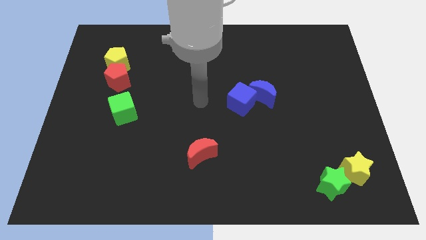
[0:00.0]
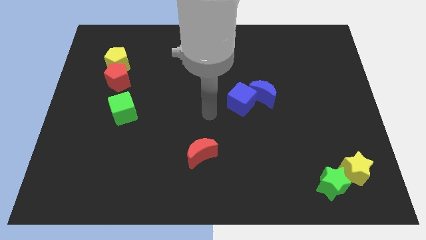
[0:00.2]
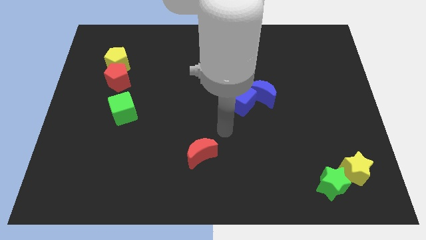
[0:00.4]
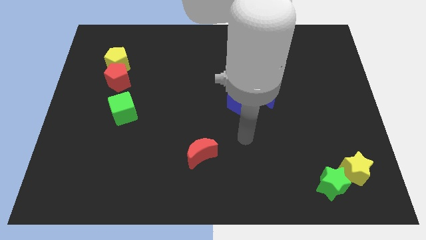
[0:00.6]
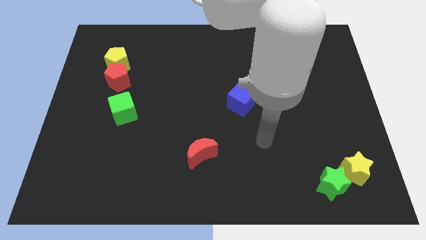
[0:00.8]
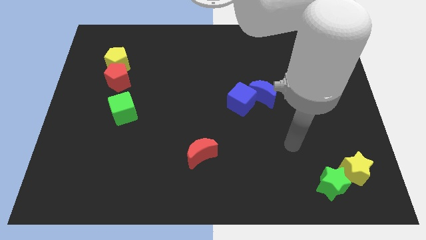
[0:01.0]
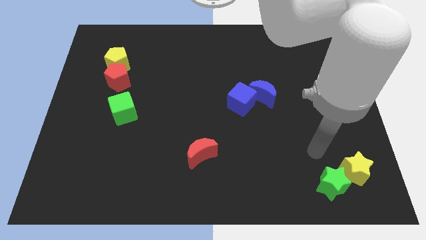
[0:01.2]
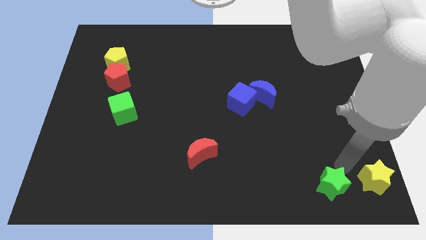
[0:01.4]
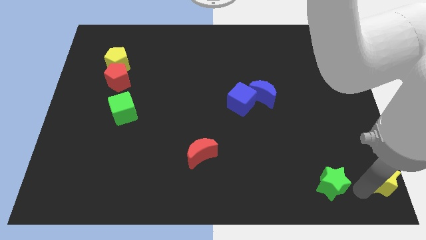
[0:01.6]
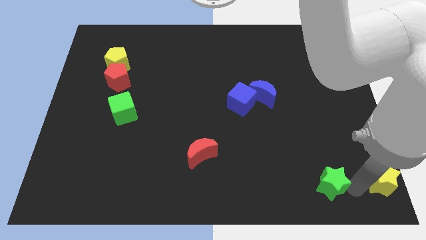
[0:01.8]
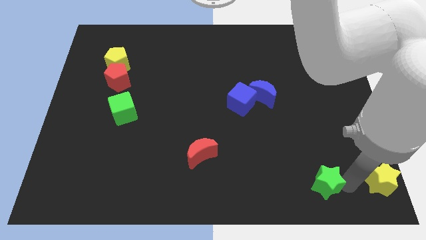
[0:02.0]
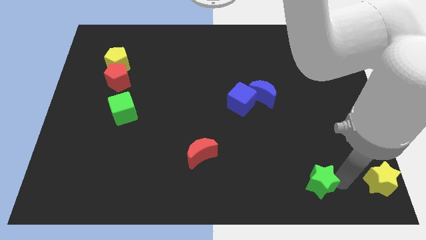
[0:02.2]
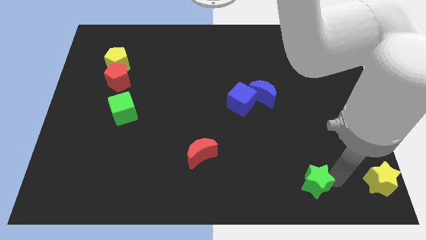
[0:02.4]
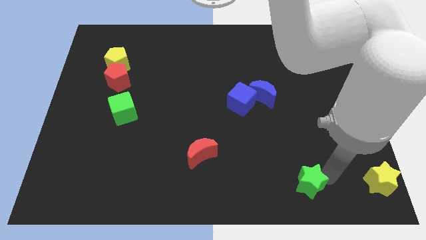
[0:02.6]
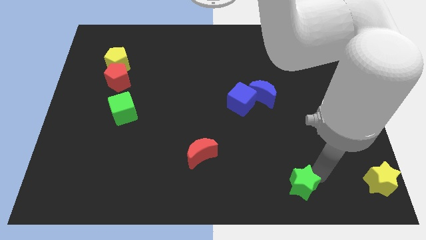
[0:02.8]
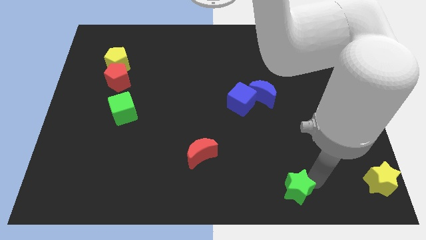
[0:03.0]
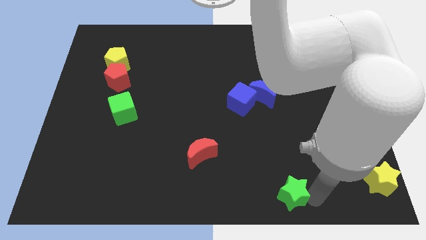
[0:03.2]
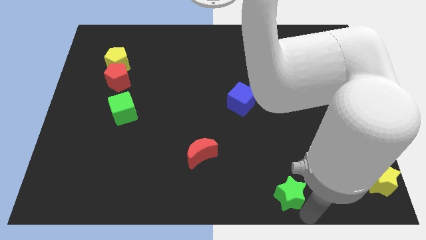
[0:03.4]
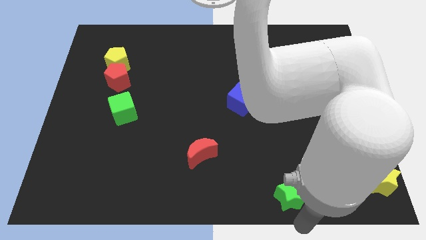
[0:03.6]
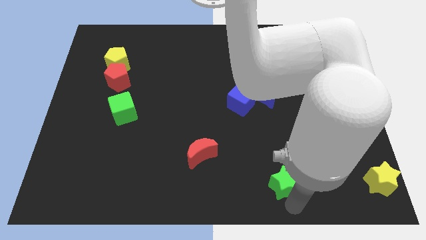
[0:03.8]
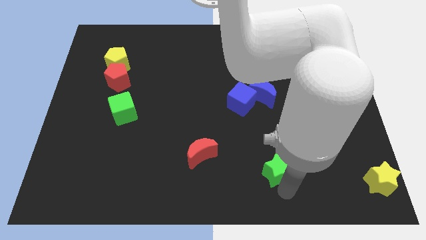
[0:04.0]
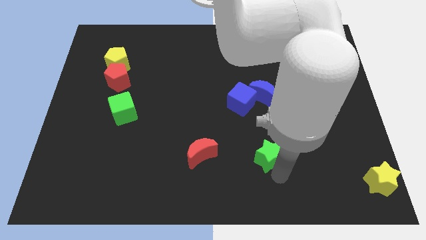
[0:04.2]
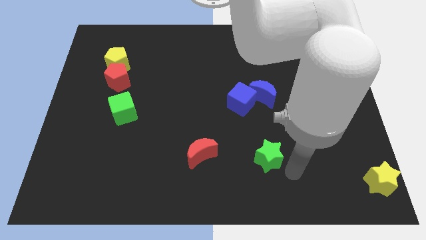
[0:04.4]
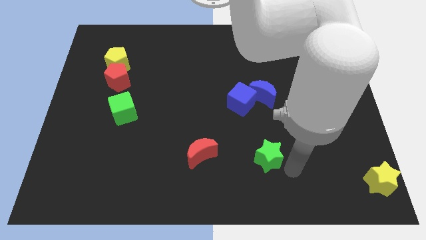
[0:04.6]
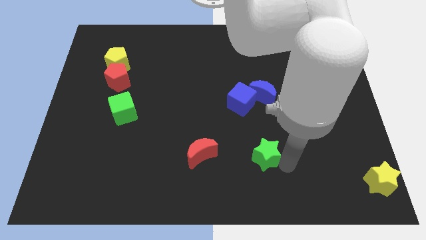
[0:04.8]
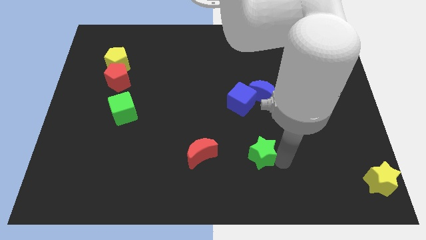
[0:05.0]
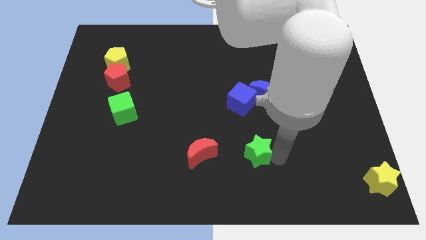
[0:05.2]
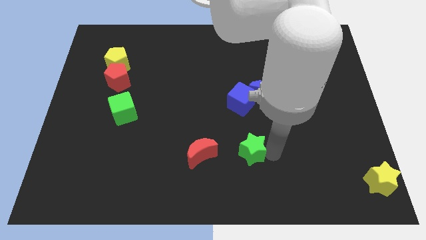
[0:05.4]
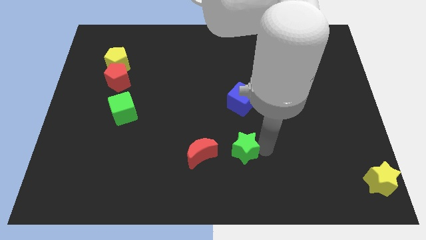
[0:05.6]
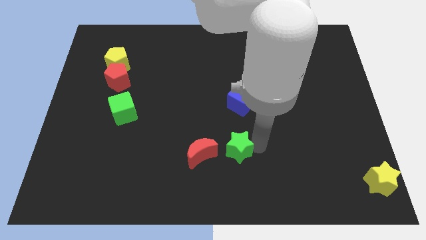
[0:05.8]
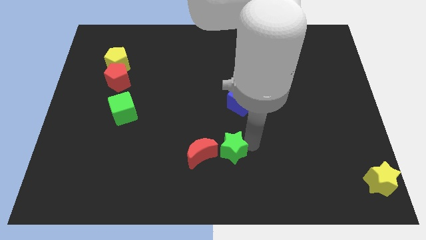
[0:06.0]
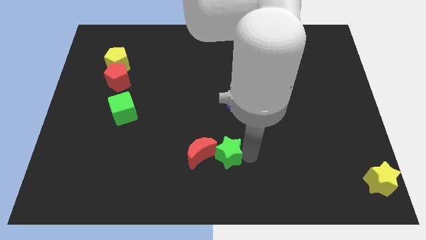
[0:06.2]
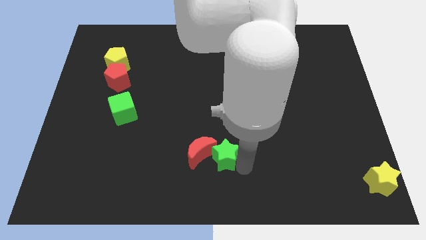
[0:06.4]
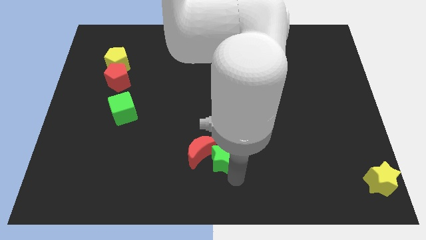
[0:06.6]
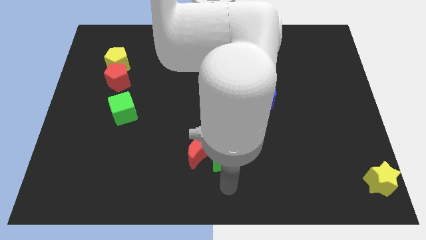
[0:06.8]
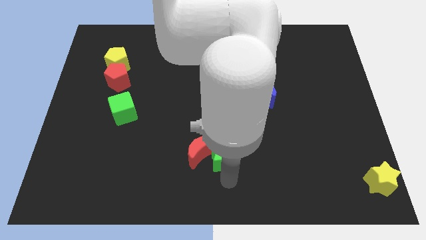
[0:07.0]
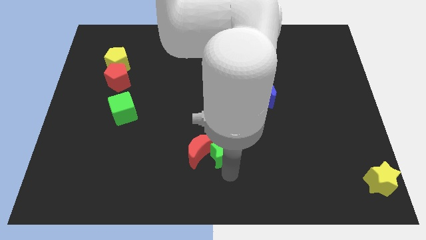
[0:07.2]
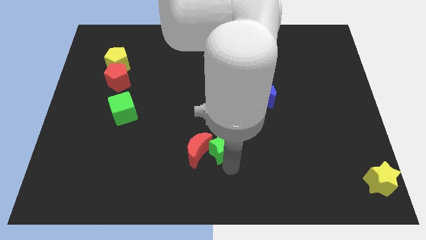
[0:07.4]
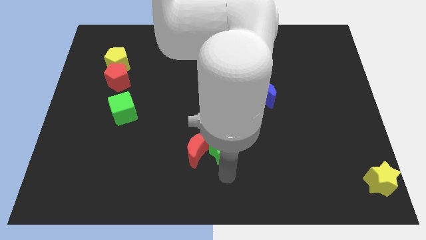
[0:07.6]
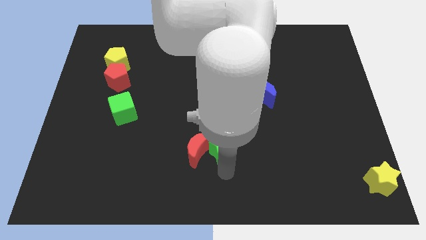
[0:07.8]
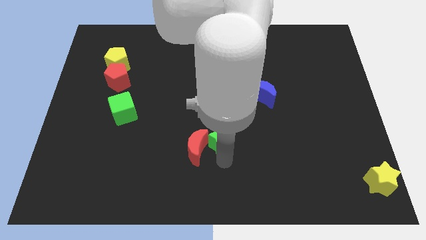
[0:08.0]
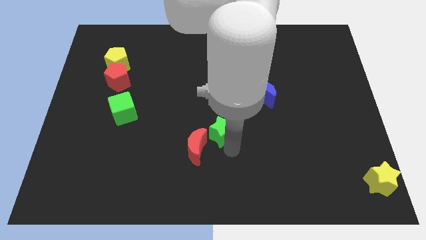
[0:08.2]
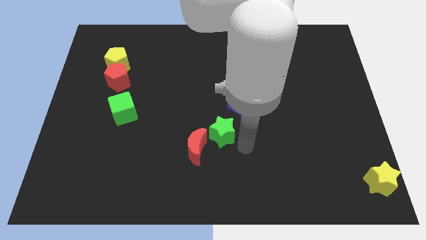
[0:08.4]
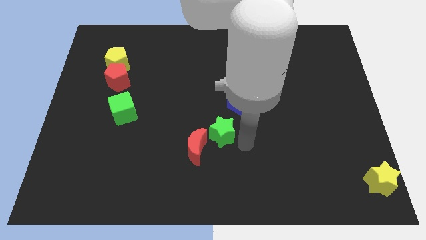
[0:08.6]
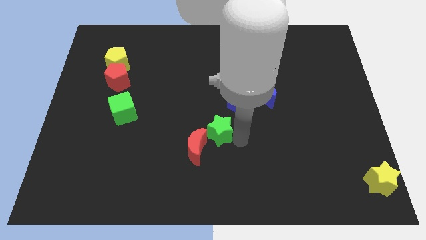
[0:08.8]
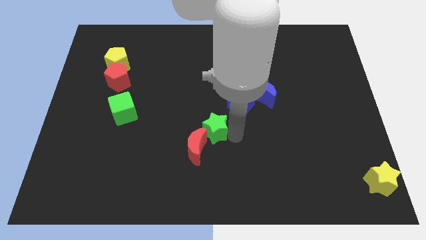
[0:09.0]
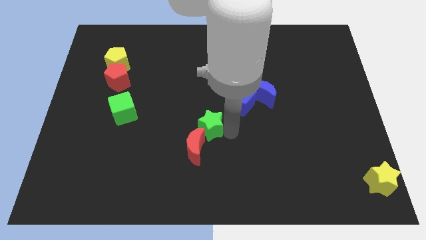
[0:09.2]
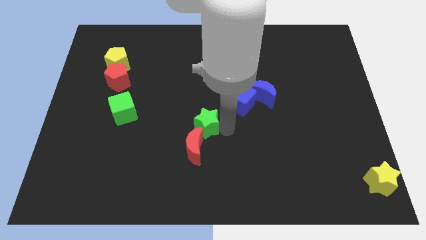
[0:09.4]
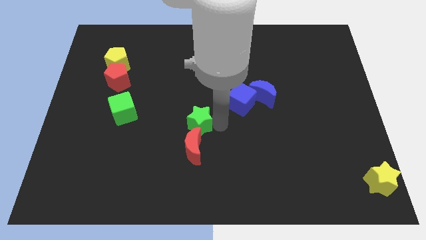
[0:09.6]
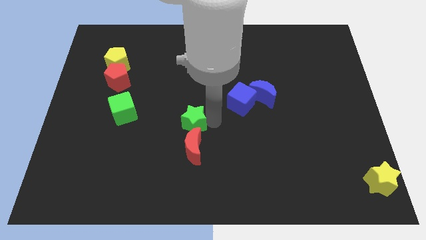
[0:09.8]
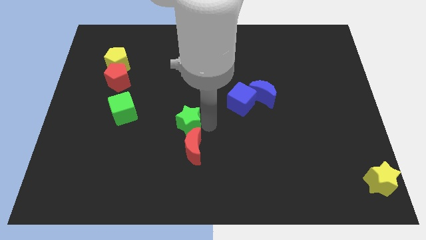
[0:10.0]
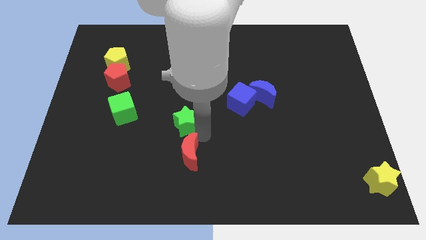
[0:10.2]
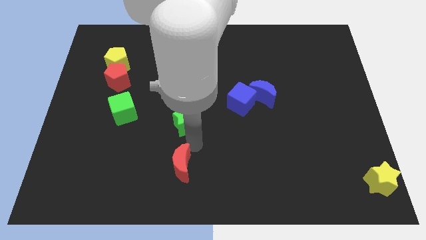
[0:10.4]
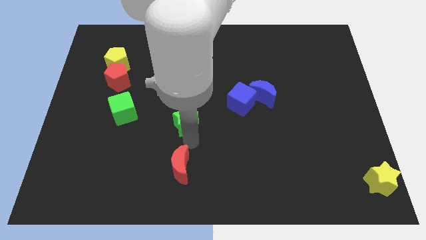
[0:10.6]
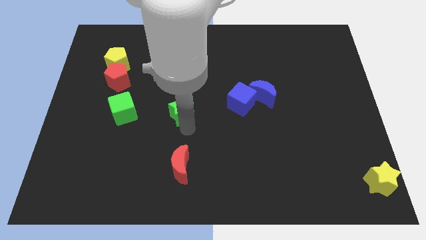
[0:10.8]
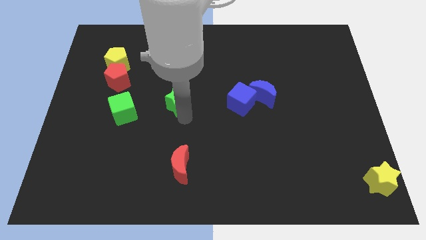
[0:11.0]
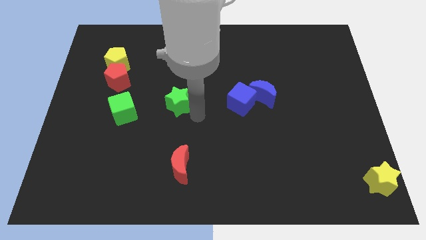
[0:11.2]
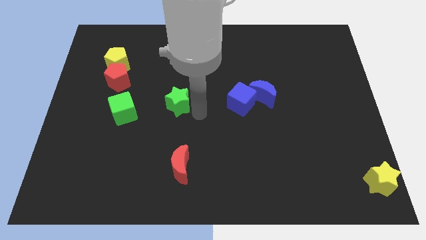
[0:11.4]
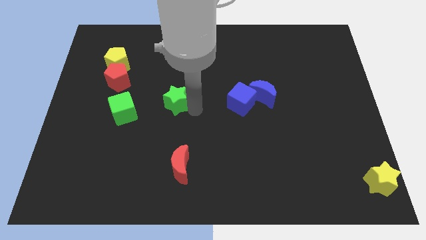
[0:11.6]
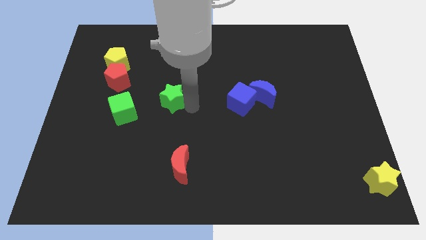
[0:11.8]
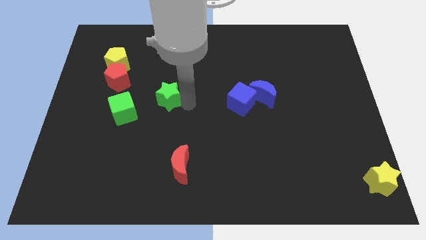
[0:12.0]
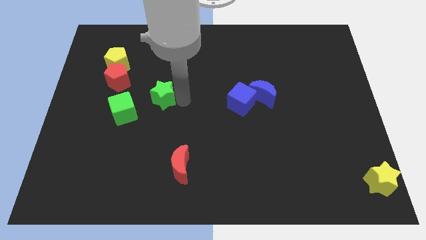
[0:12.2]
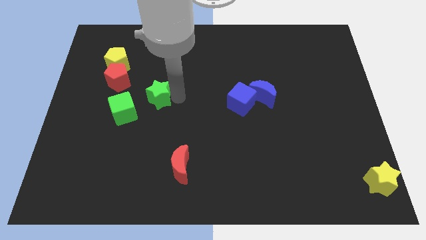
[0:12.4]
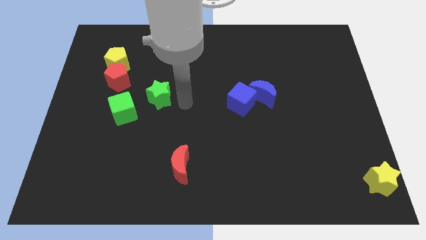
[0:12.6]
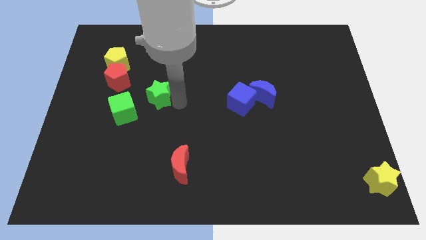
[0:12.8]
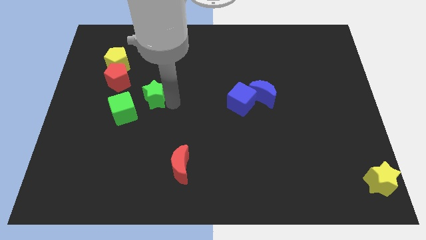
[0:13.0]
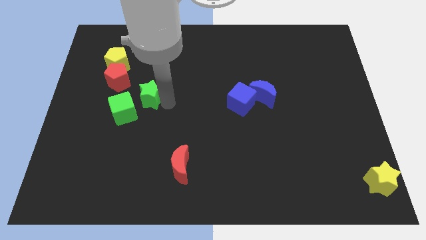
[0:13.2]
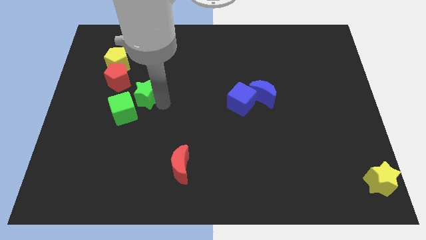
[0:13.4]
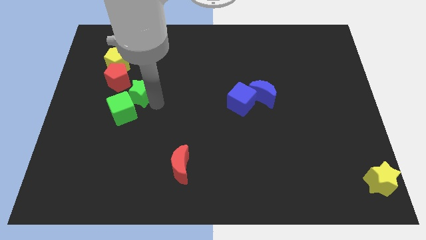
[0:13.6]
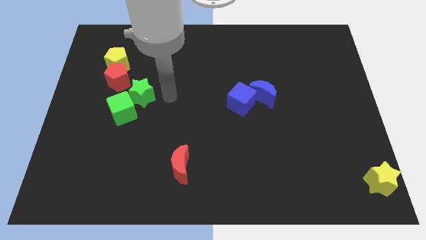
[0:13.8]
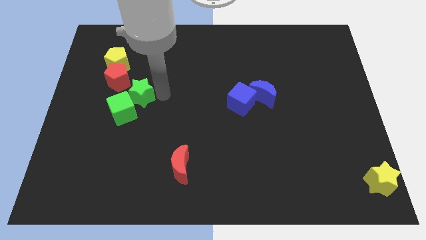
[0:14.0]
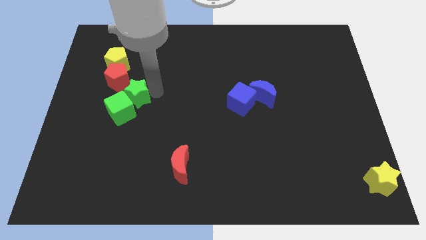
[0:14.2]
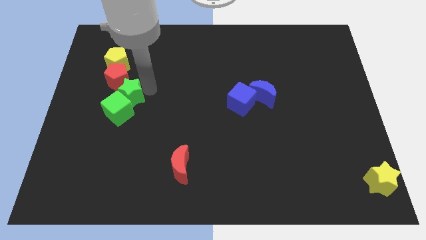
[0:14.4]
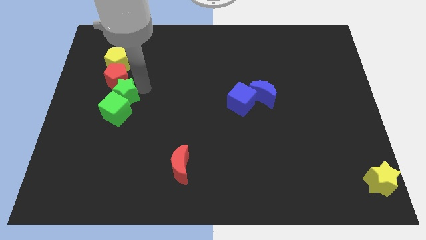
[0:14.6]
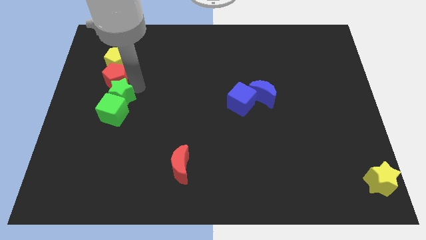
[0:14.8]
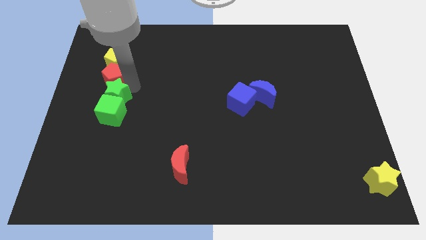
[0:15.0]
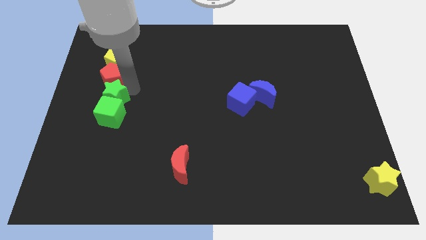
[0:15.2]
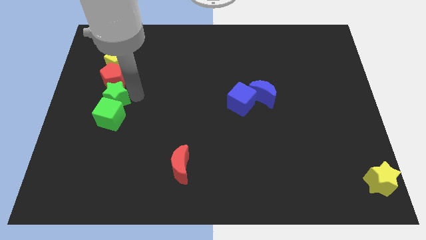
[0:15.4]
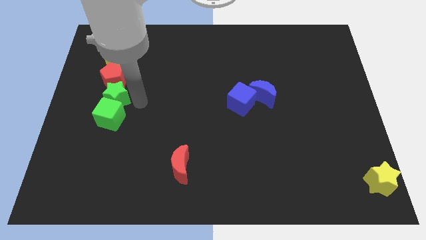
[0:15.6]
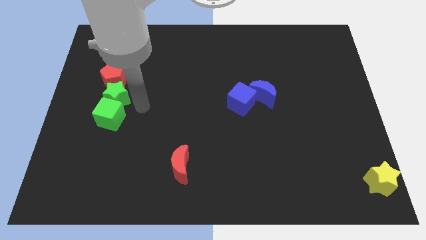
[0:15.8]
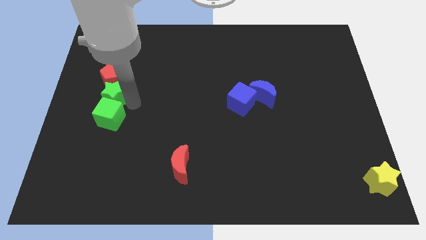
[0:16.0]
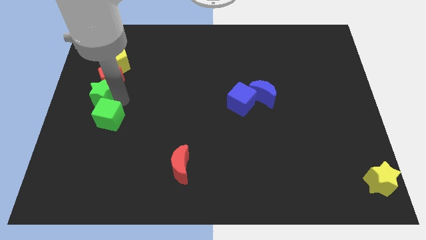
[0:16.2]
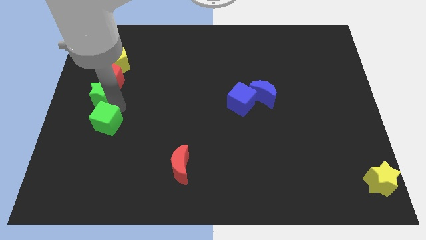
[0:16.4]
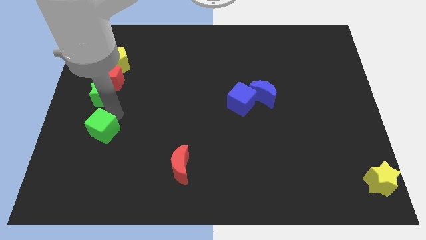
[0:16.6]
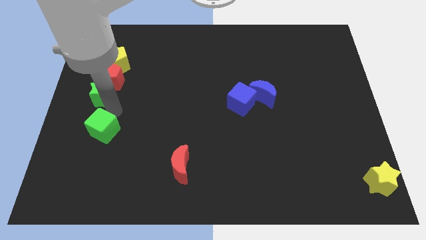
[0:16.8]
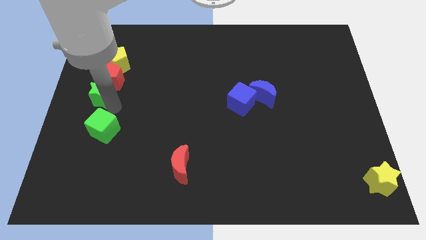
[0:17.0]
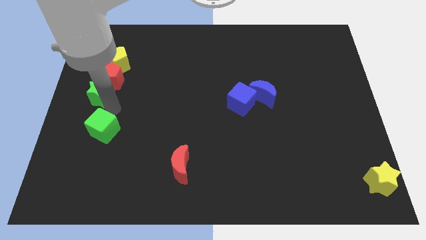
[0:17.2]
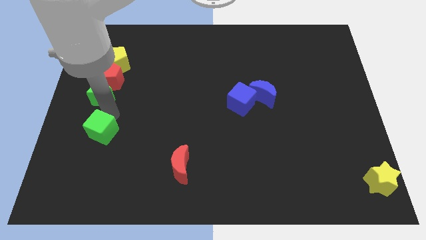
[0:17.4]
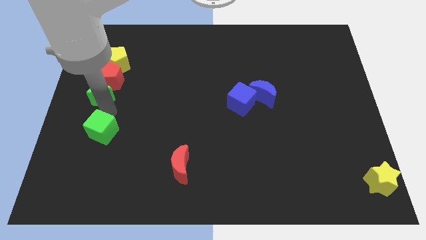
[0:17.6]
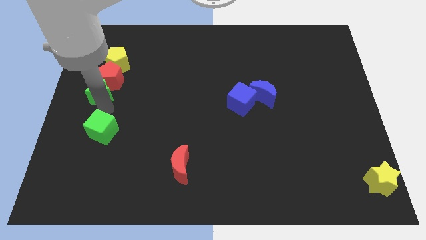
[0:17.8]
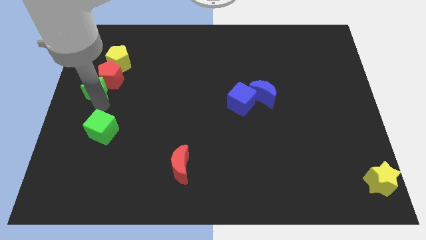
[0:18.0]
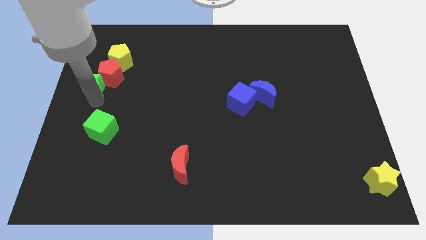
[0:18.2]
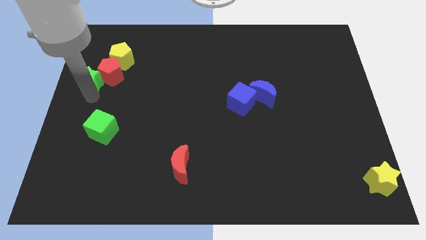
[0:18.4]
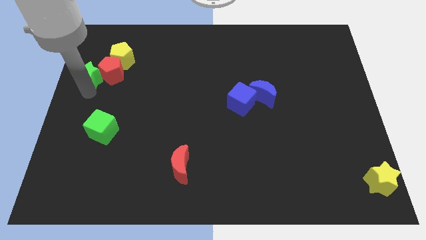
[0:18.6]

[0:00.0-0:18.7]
put the green star to the top left of the red pentagon
